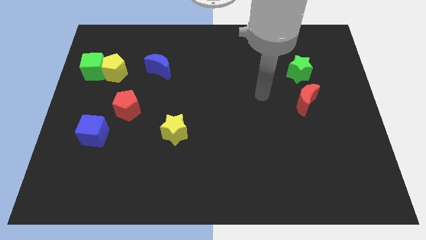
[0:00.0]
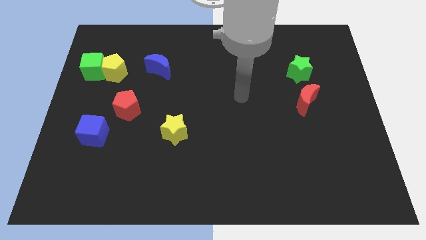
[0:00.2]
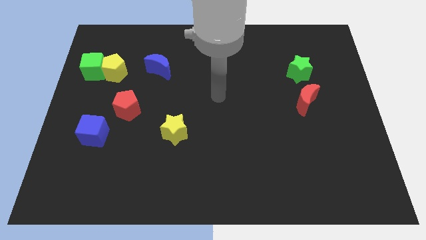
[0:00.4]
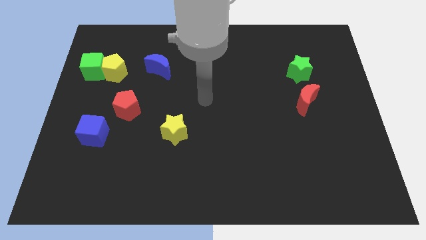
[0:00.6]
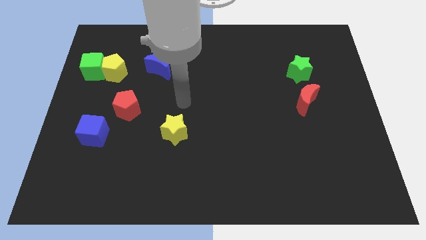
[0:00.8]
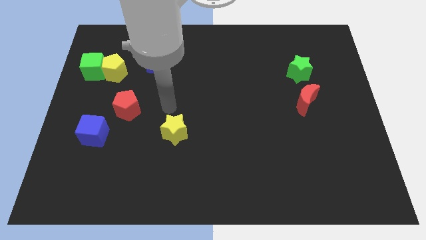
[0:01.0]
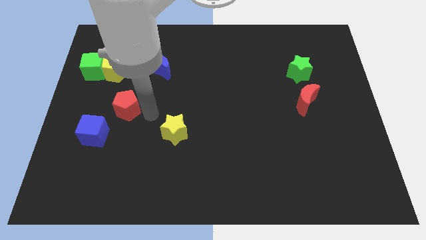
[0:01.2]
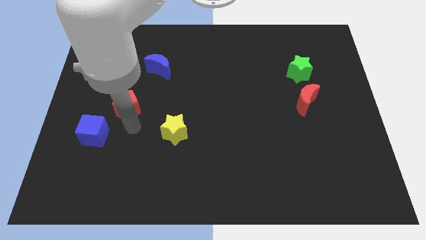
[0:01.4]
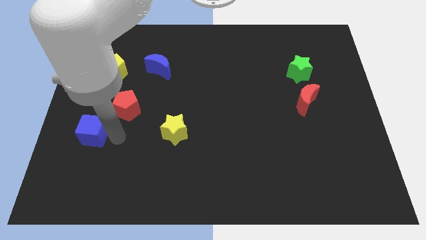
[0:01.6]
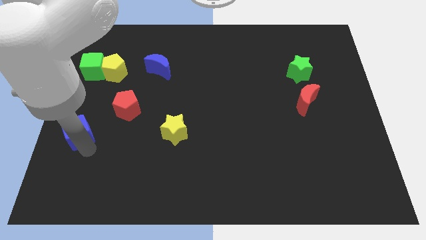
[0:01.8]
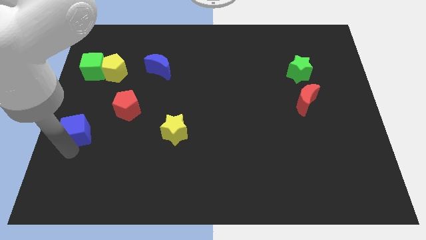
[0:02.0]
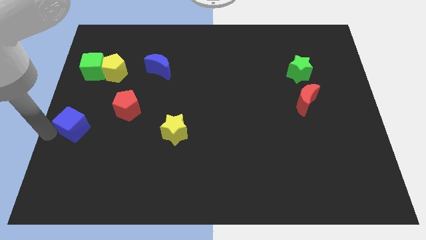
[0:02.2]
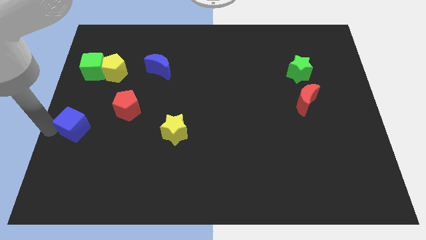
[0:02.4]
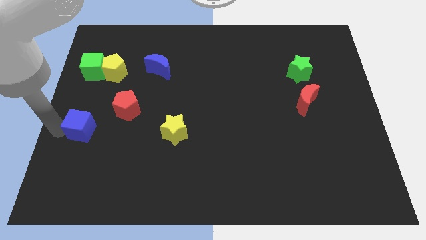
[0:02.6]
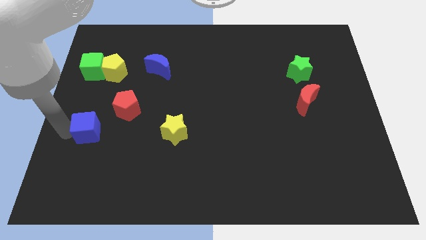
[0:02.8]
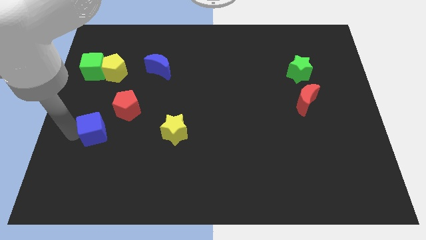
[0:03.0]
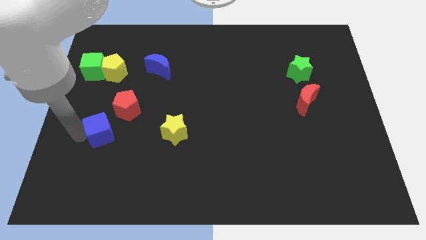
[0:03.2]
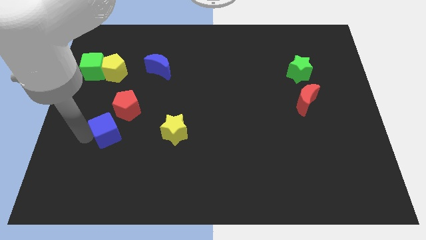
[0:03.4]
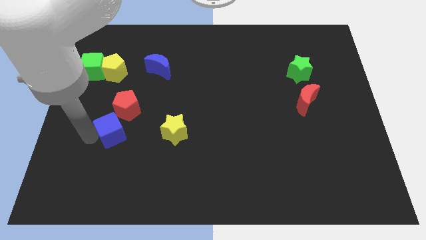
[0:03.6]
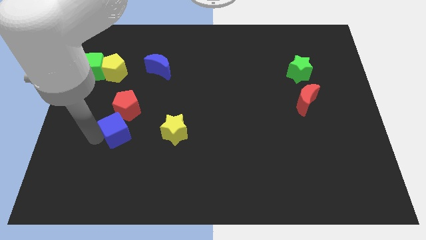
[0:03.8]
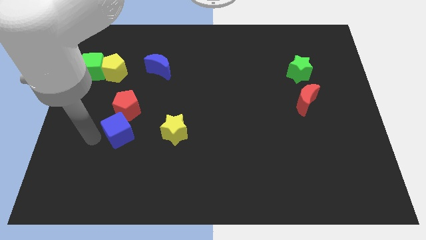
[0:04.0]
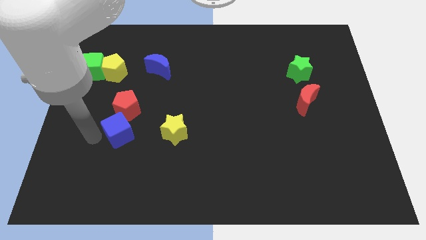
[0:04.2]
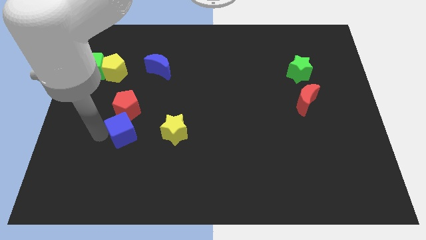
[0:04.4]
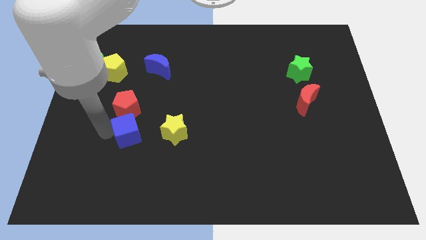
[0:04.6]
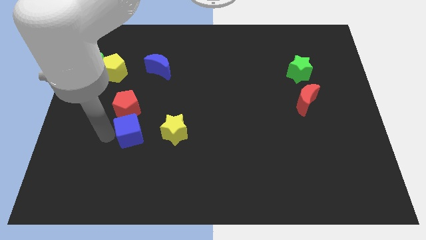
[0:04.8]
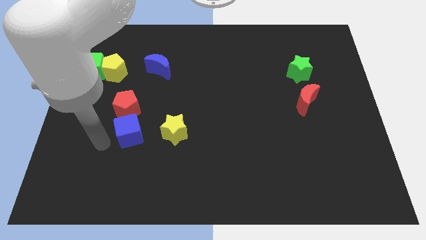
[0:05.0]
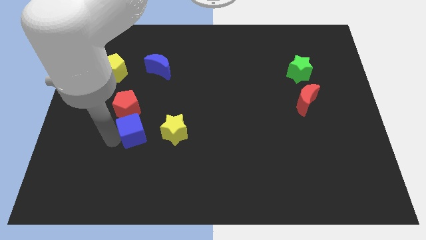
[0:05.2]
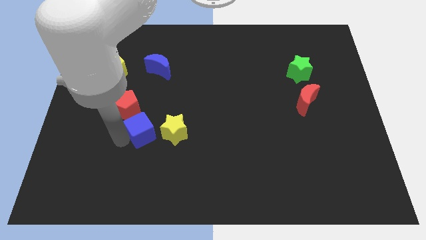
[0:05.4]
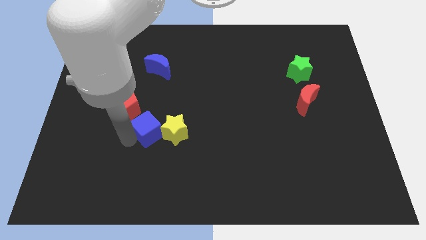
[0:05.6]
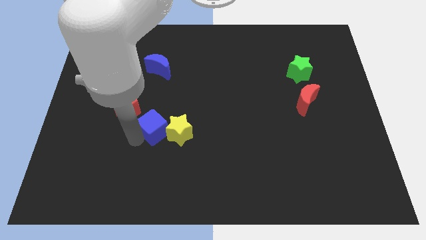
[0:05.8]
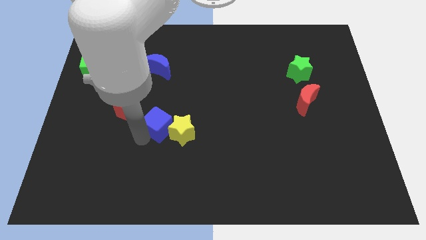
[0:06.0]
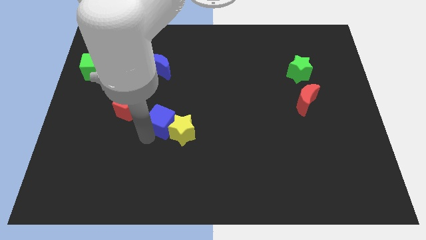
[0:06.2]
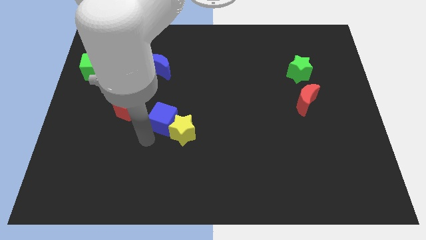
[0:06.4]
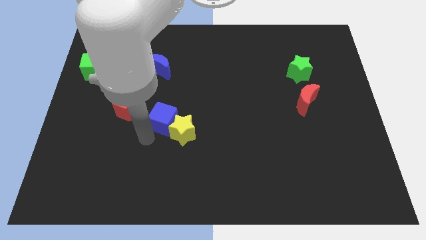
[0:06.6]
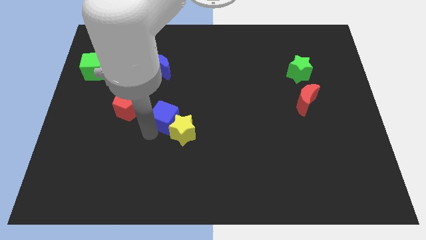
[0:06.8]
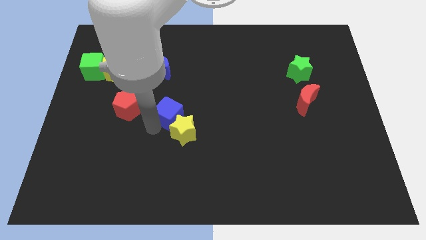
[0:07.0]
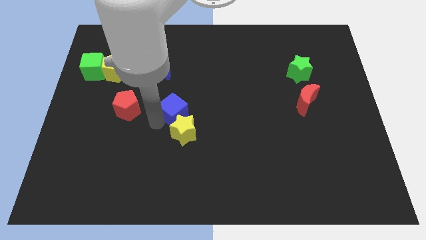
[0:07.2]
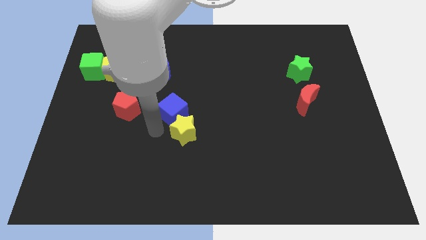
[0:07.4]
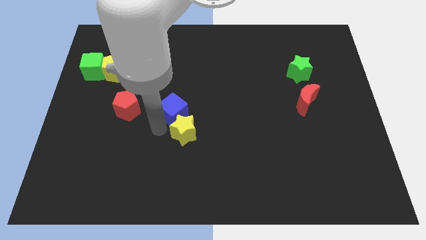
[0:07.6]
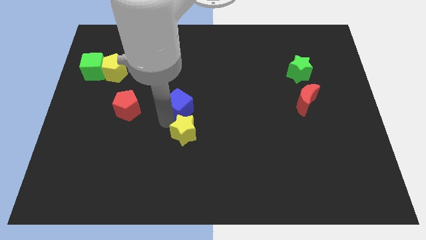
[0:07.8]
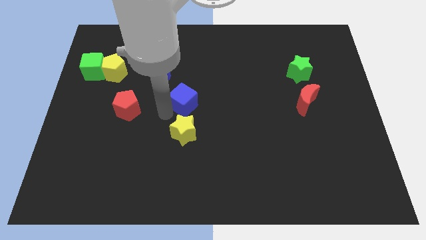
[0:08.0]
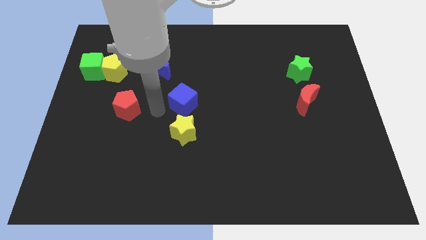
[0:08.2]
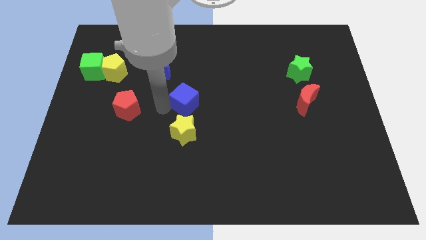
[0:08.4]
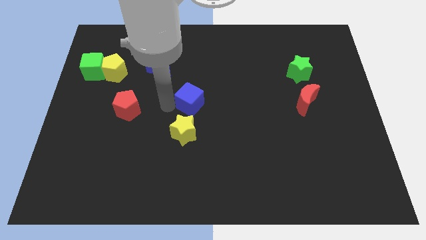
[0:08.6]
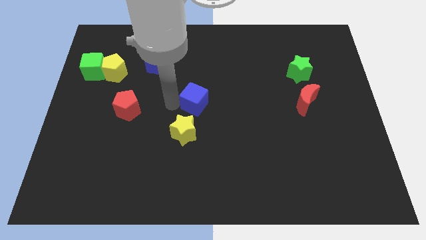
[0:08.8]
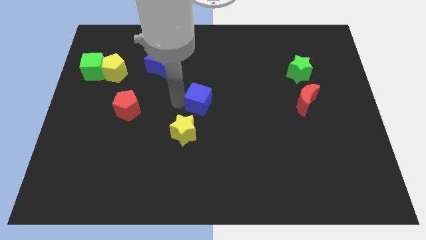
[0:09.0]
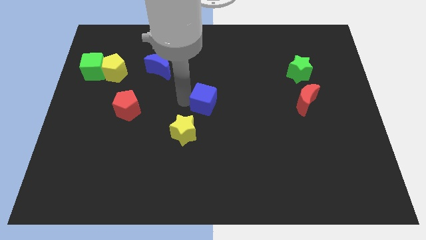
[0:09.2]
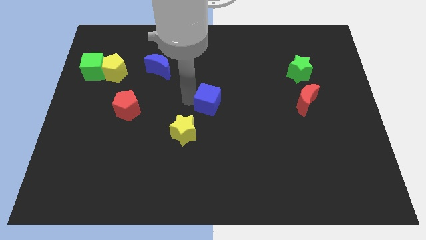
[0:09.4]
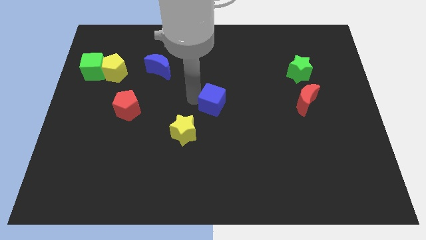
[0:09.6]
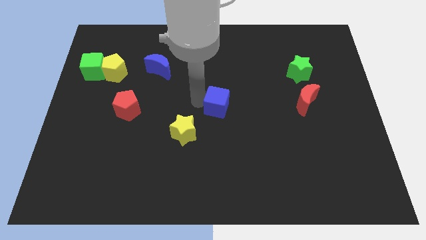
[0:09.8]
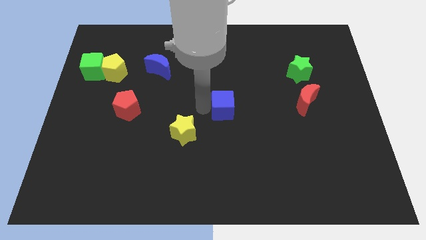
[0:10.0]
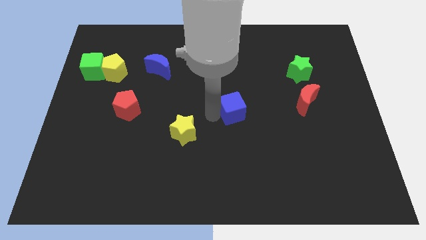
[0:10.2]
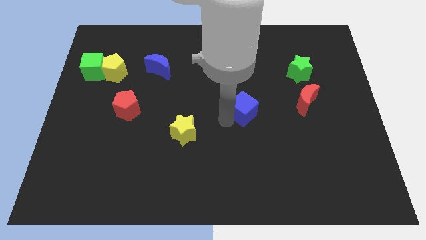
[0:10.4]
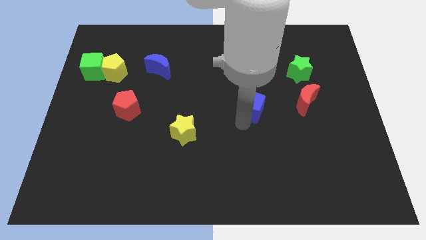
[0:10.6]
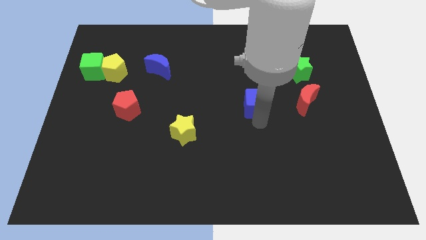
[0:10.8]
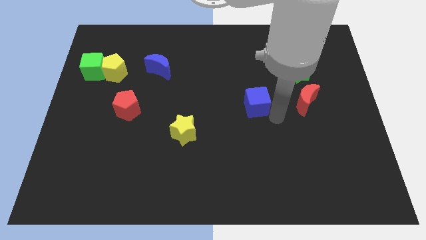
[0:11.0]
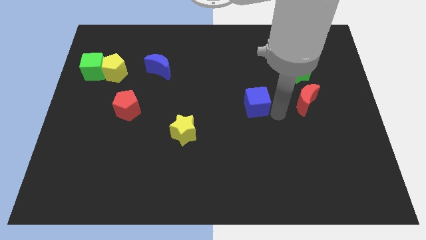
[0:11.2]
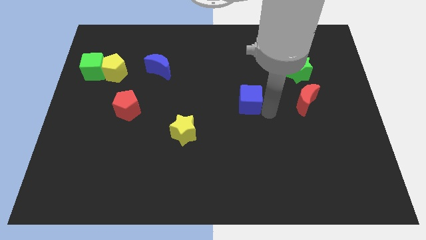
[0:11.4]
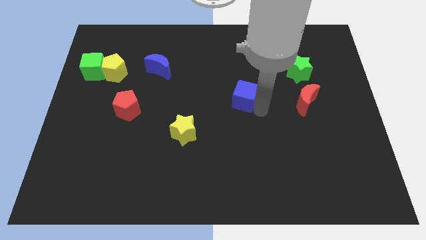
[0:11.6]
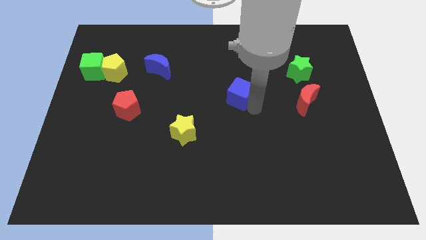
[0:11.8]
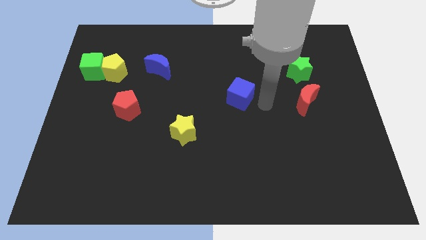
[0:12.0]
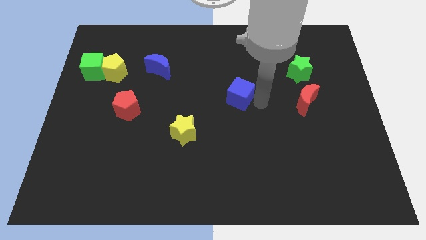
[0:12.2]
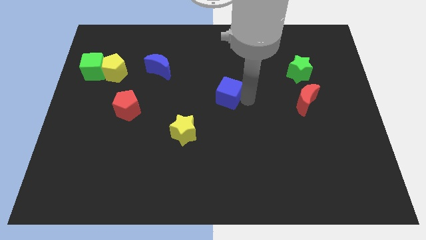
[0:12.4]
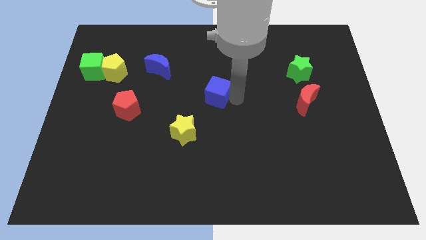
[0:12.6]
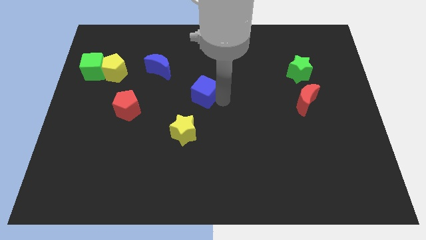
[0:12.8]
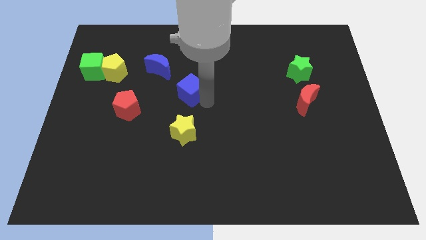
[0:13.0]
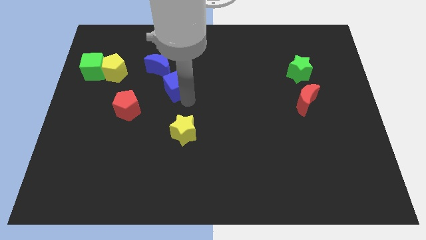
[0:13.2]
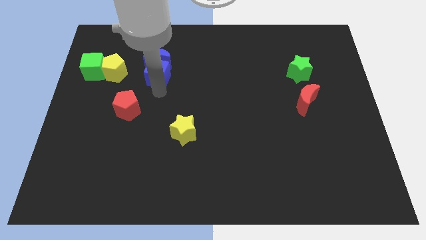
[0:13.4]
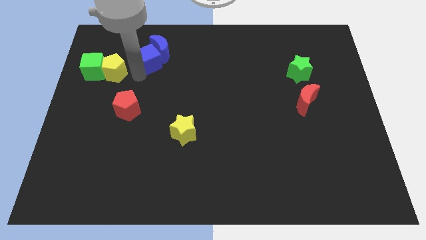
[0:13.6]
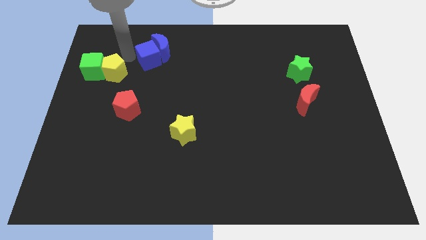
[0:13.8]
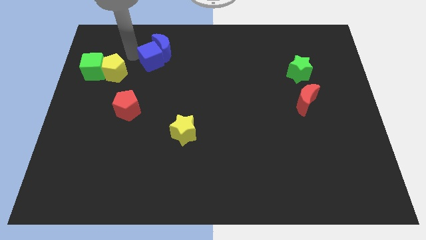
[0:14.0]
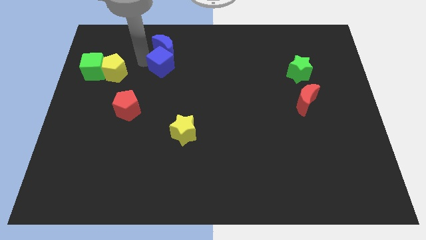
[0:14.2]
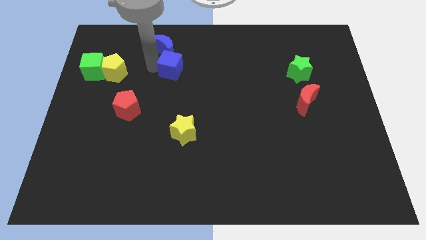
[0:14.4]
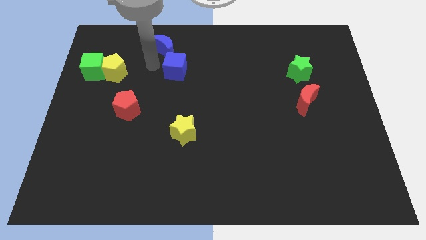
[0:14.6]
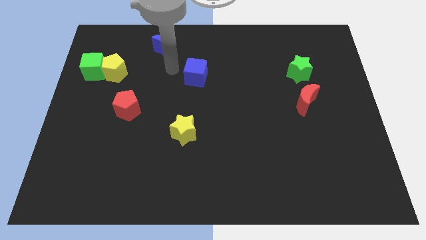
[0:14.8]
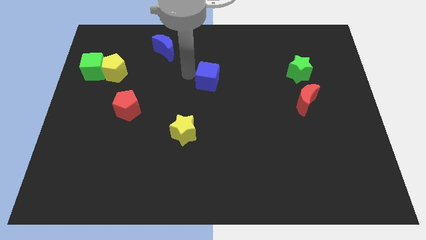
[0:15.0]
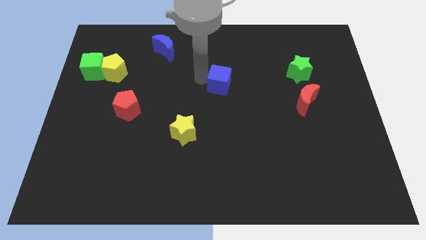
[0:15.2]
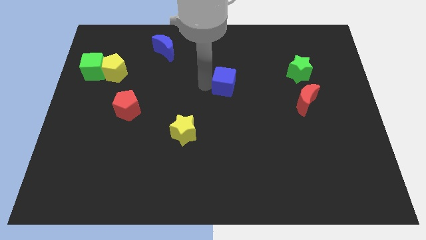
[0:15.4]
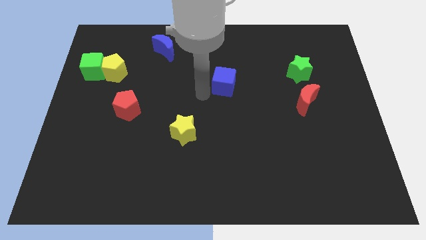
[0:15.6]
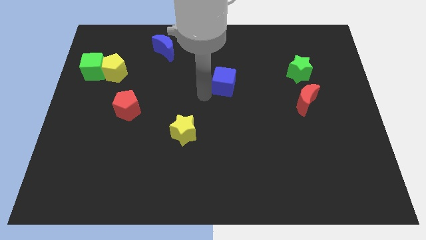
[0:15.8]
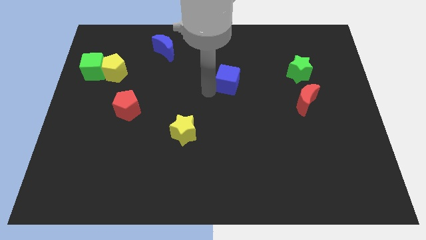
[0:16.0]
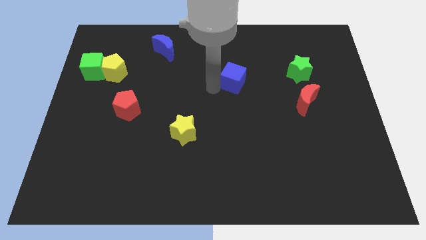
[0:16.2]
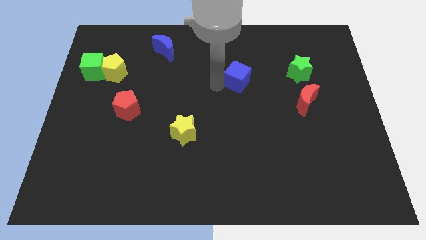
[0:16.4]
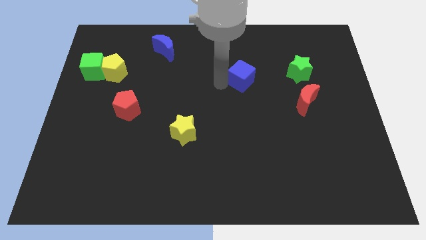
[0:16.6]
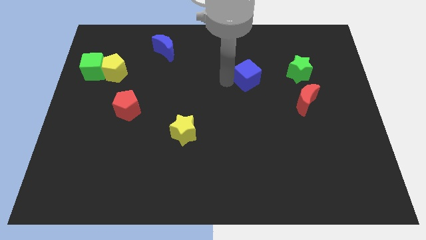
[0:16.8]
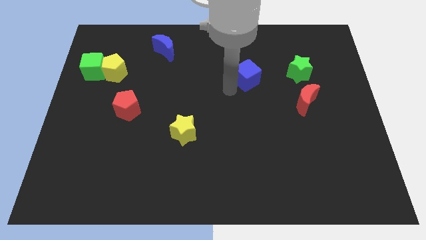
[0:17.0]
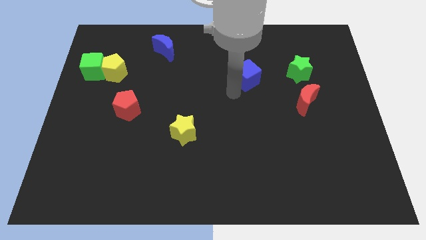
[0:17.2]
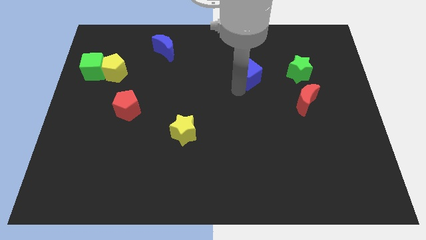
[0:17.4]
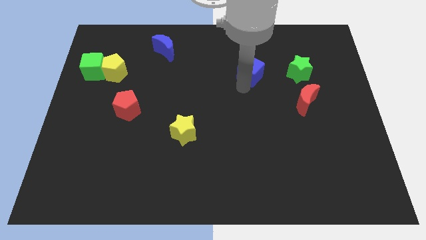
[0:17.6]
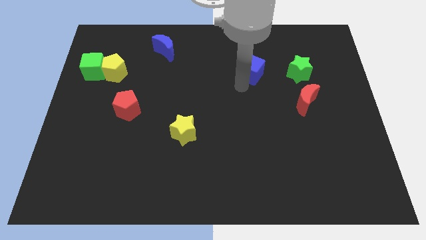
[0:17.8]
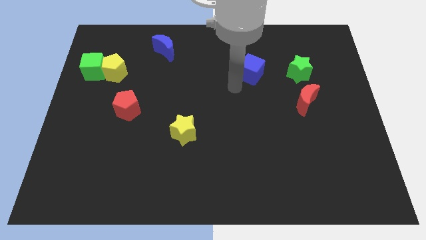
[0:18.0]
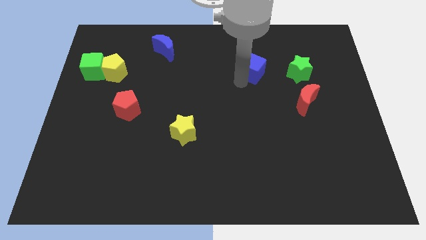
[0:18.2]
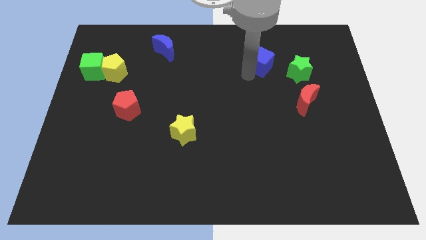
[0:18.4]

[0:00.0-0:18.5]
slide the blue cube diagonally up and to the left of the green star
